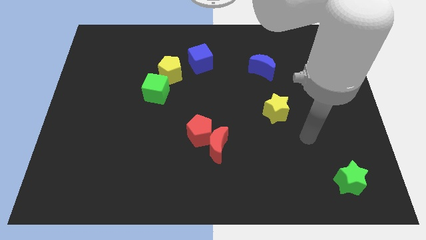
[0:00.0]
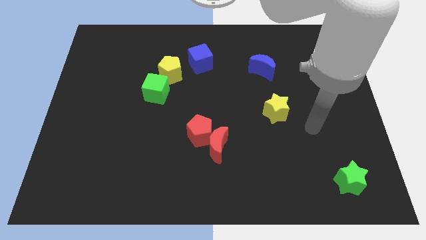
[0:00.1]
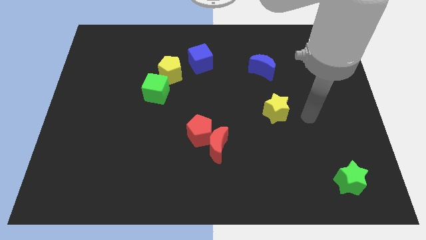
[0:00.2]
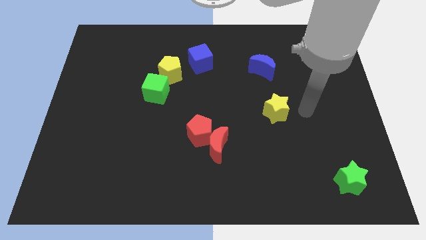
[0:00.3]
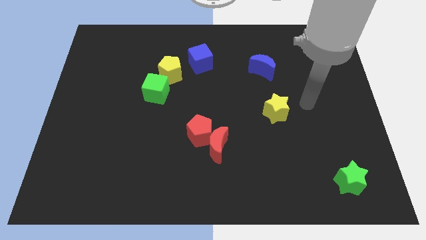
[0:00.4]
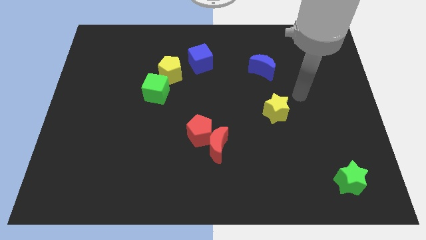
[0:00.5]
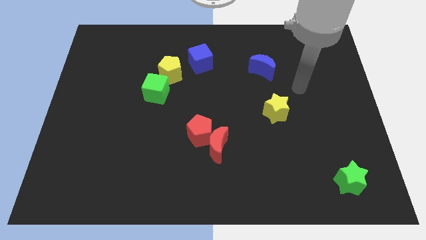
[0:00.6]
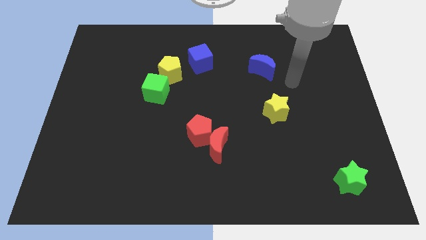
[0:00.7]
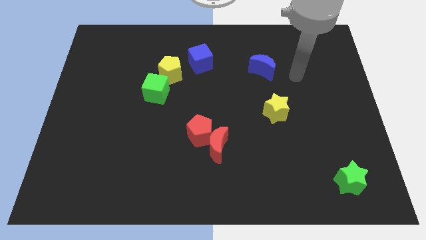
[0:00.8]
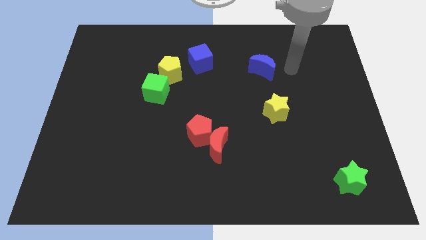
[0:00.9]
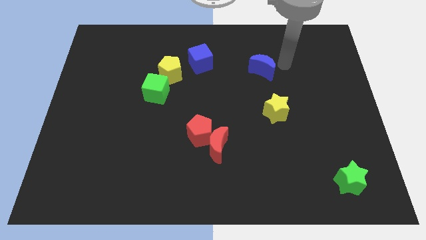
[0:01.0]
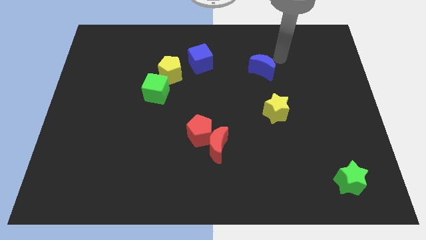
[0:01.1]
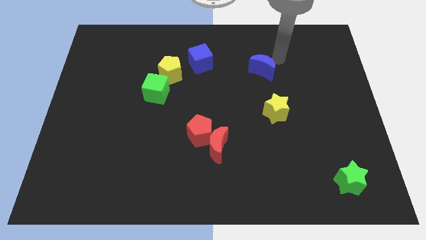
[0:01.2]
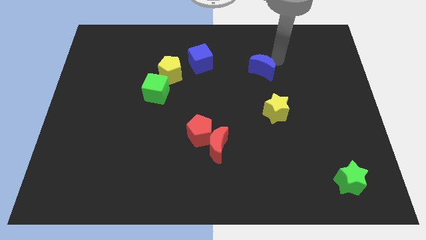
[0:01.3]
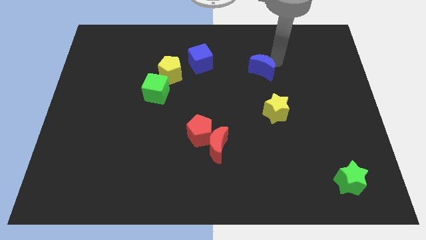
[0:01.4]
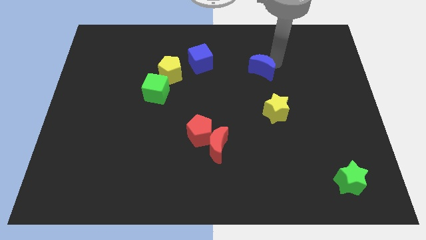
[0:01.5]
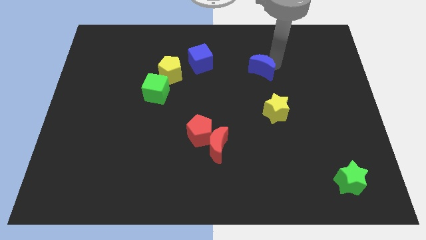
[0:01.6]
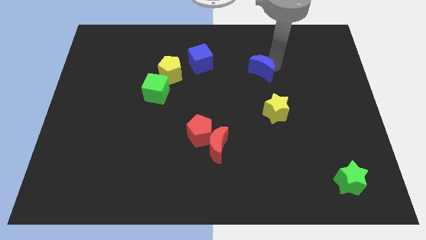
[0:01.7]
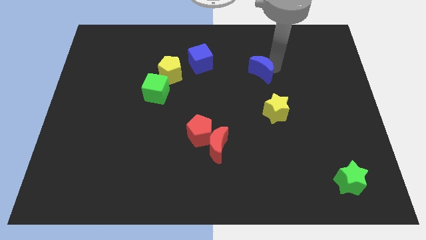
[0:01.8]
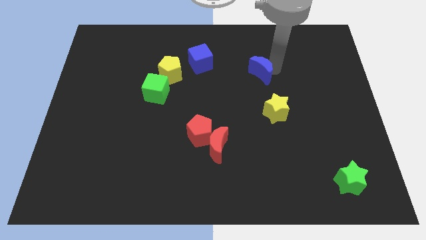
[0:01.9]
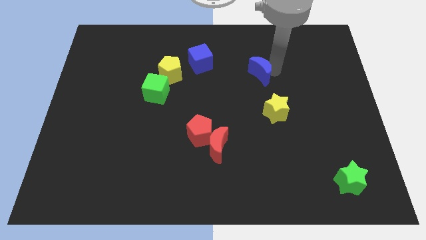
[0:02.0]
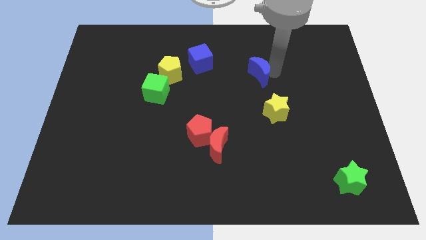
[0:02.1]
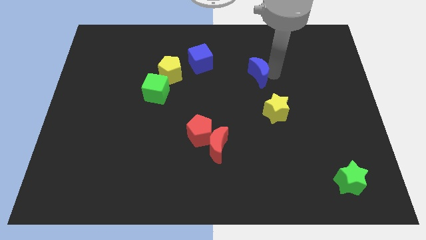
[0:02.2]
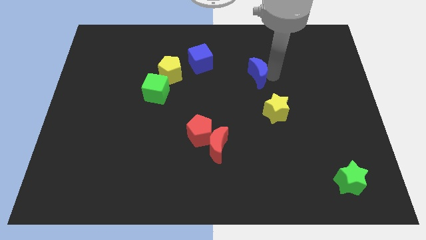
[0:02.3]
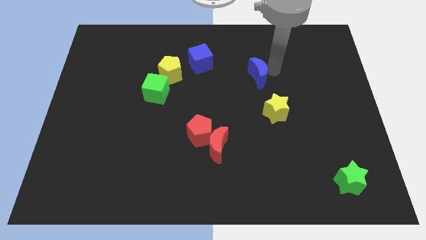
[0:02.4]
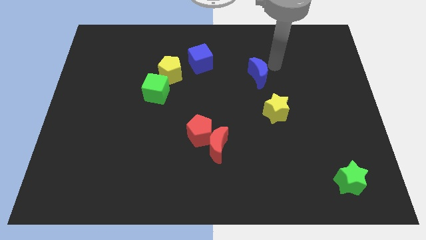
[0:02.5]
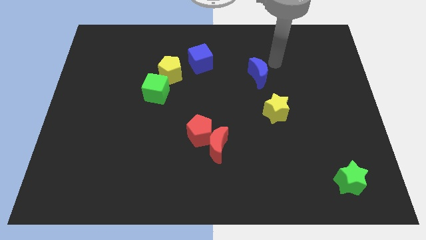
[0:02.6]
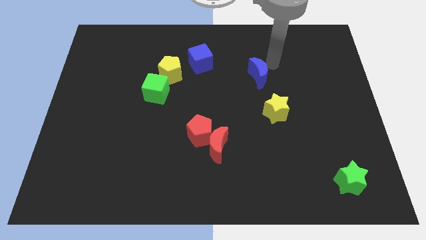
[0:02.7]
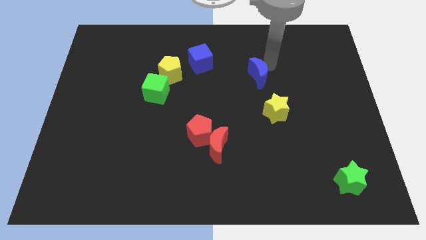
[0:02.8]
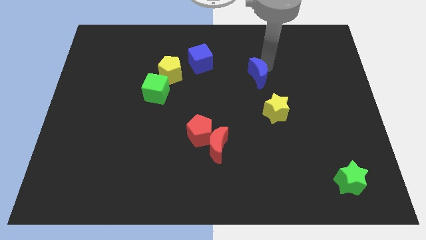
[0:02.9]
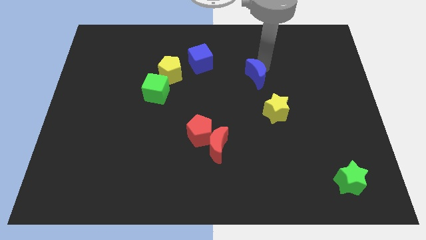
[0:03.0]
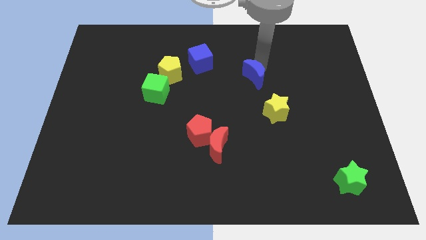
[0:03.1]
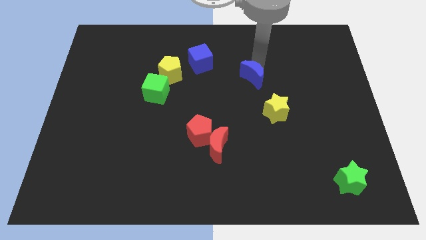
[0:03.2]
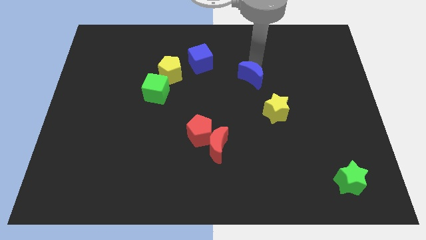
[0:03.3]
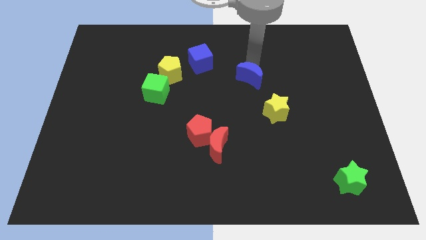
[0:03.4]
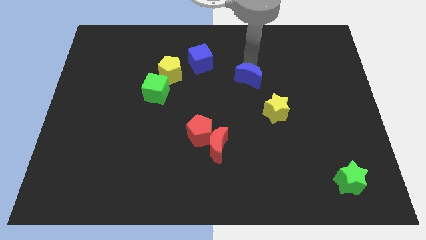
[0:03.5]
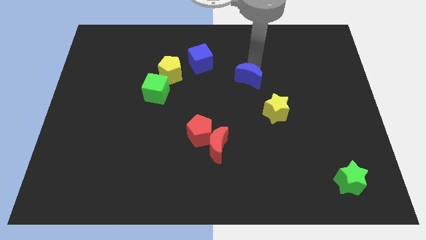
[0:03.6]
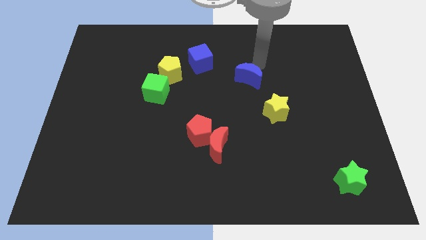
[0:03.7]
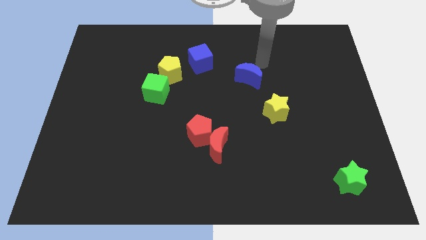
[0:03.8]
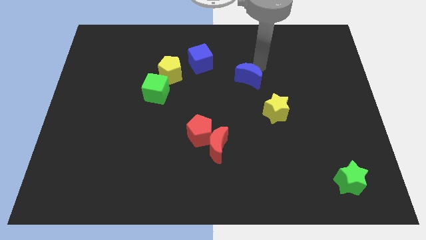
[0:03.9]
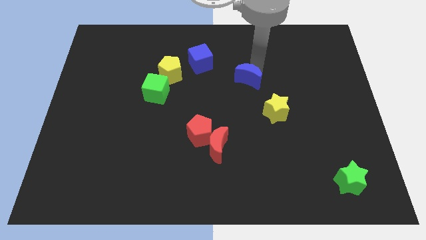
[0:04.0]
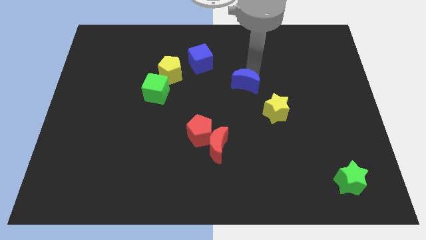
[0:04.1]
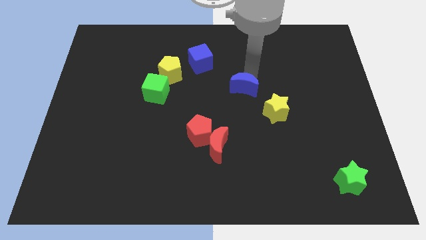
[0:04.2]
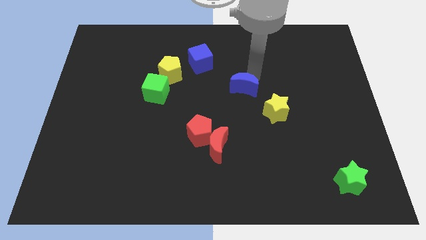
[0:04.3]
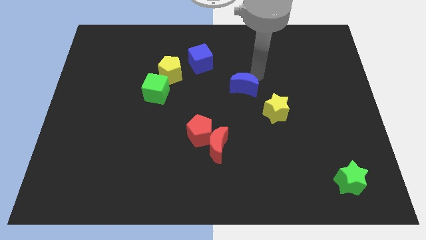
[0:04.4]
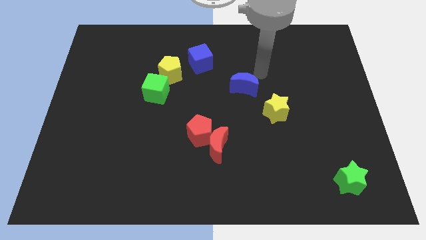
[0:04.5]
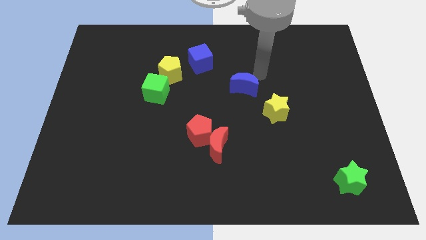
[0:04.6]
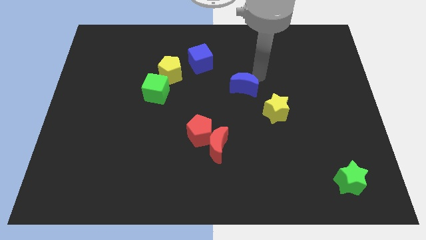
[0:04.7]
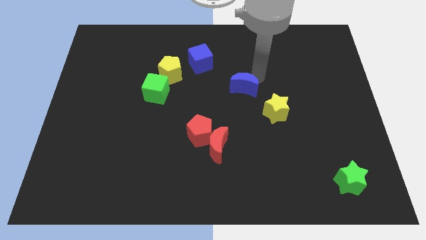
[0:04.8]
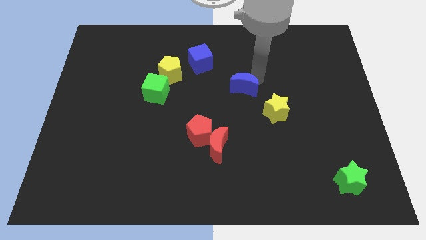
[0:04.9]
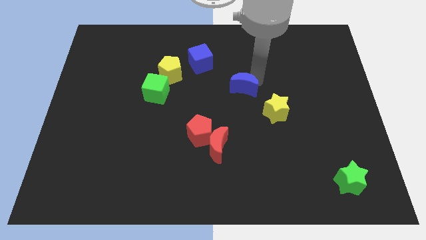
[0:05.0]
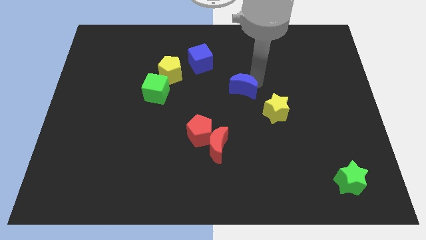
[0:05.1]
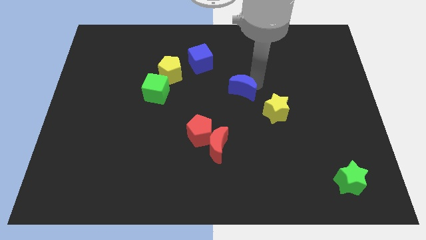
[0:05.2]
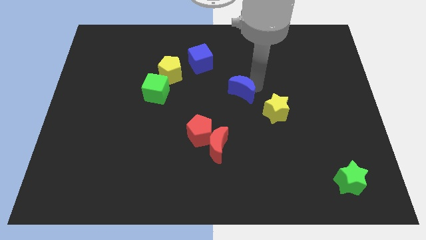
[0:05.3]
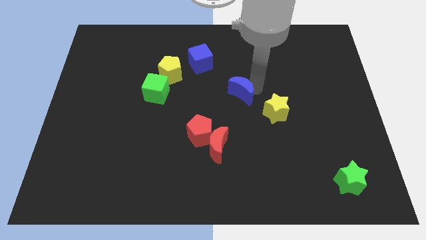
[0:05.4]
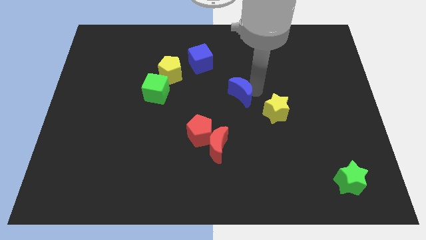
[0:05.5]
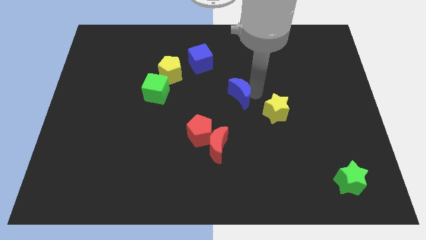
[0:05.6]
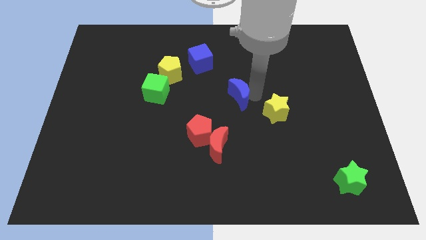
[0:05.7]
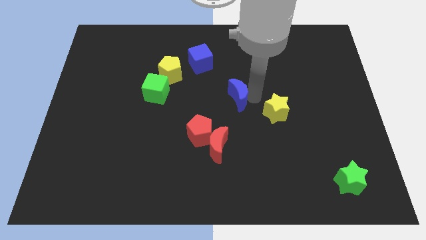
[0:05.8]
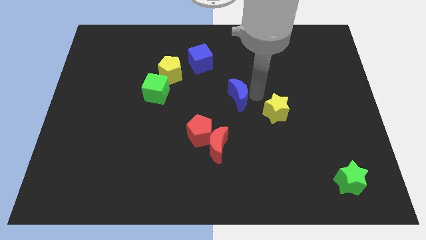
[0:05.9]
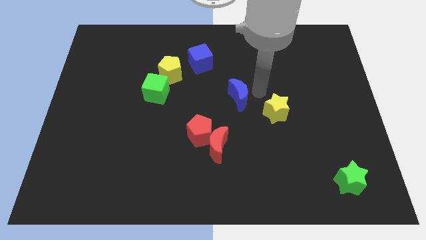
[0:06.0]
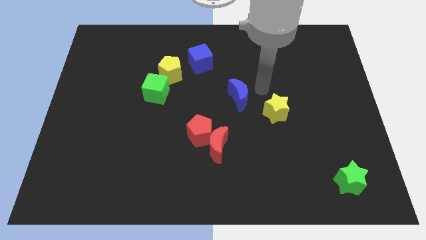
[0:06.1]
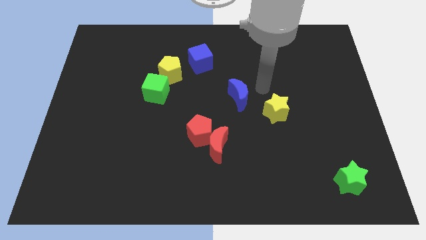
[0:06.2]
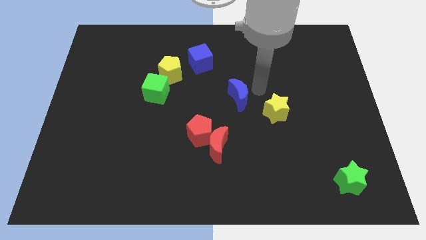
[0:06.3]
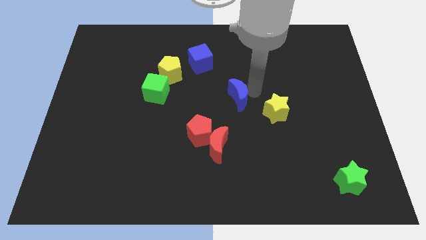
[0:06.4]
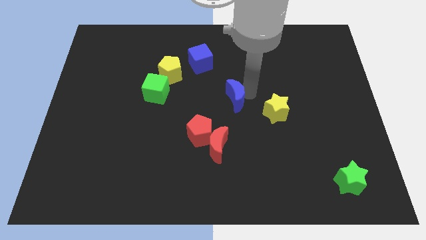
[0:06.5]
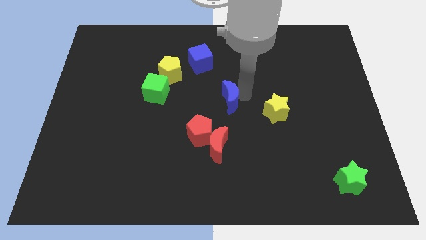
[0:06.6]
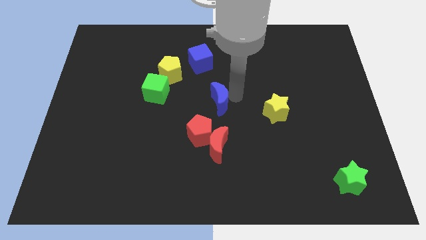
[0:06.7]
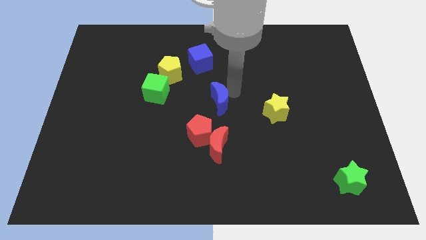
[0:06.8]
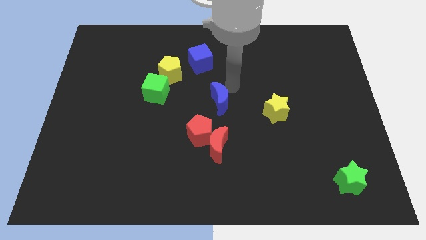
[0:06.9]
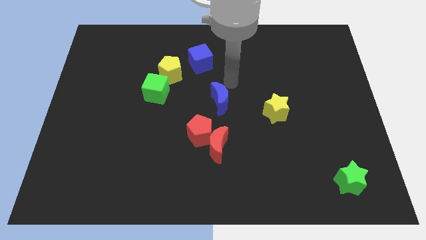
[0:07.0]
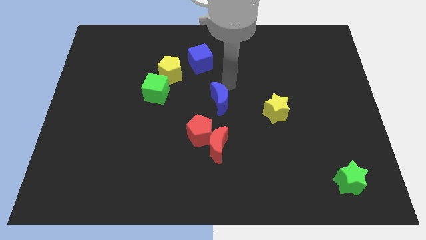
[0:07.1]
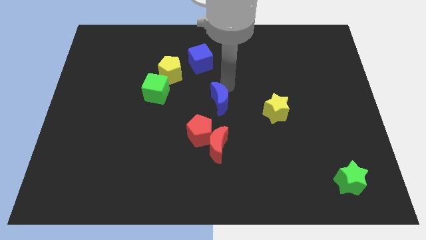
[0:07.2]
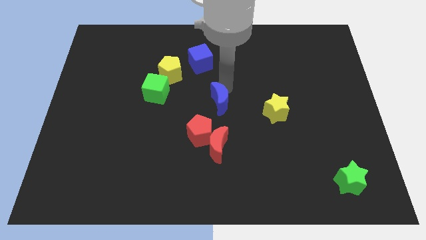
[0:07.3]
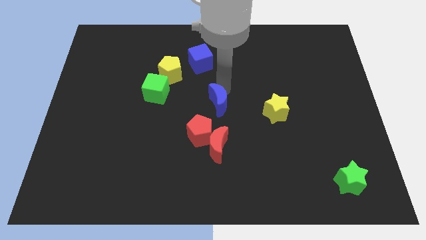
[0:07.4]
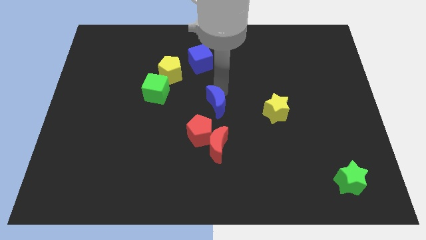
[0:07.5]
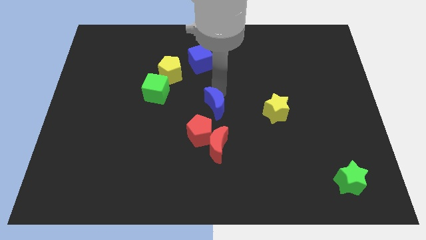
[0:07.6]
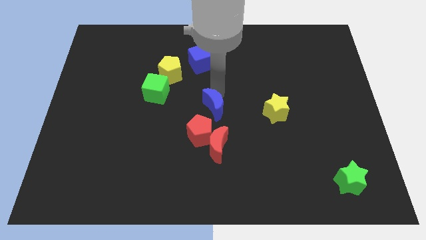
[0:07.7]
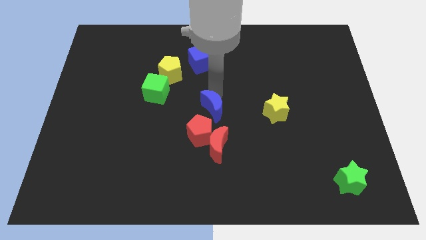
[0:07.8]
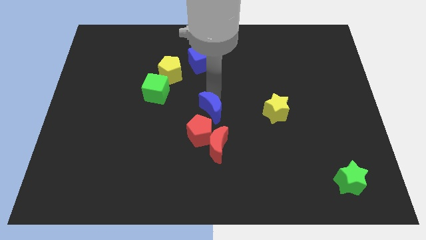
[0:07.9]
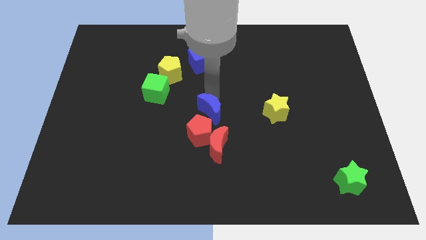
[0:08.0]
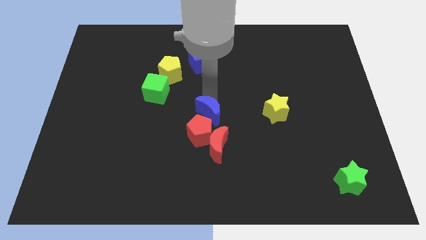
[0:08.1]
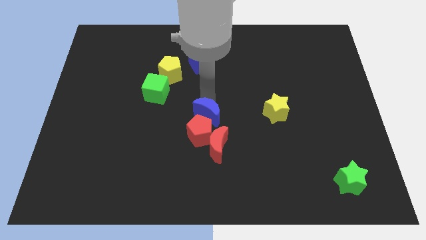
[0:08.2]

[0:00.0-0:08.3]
push the blue moon close to the red pentagon
